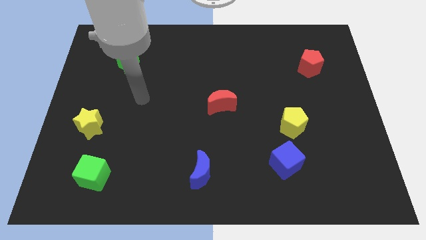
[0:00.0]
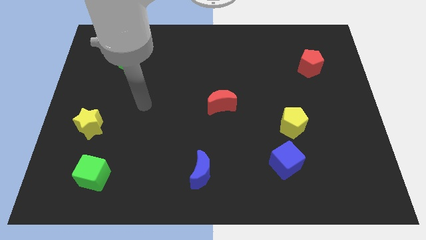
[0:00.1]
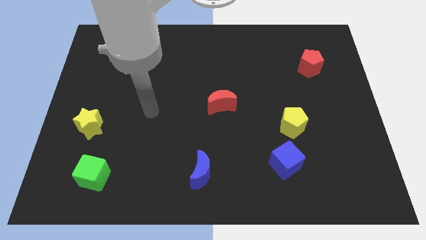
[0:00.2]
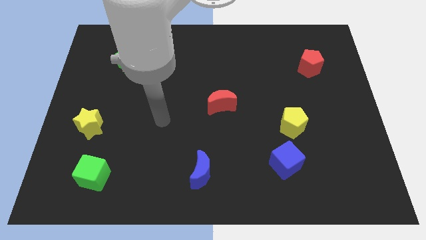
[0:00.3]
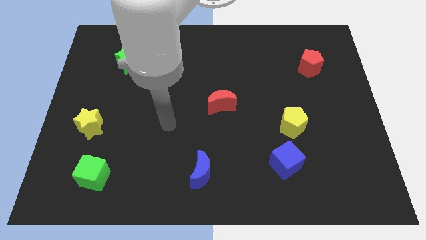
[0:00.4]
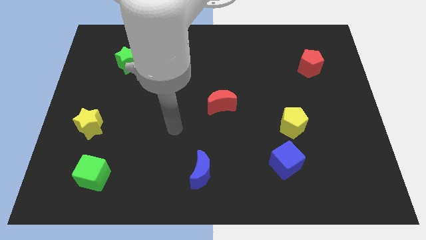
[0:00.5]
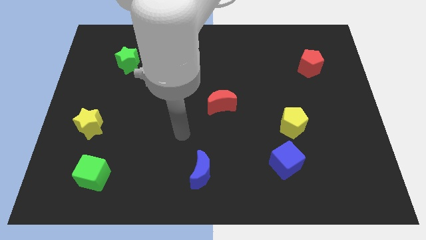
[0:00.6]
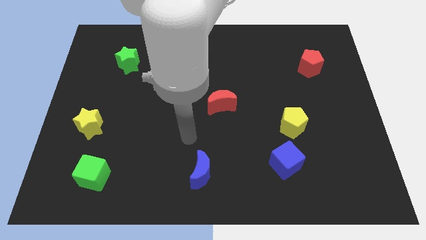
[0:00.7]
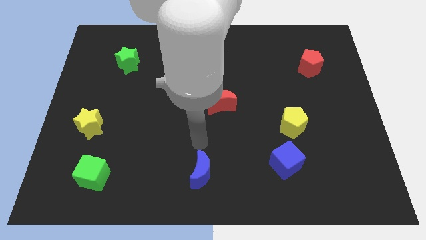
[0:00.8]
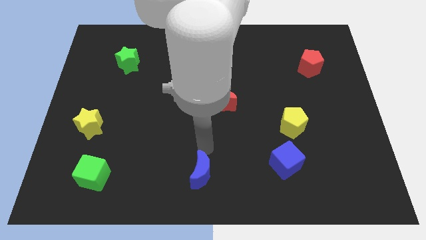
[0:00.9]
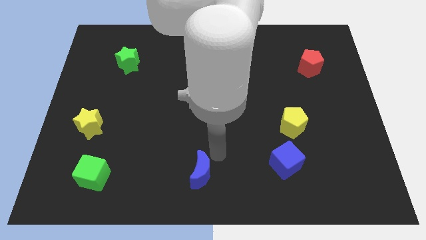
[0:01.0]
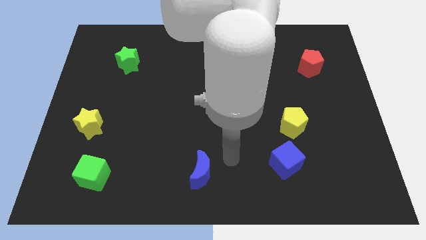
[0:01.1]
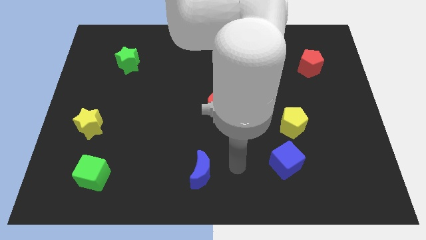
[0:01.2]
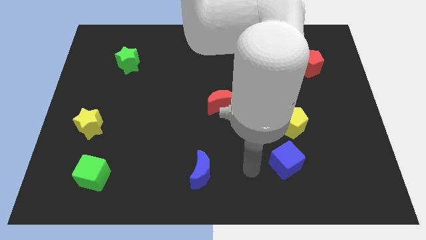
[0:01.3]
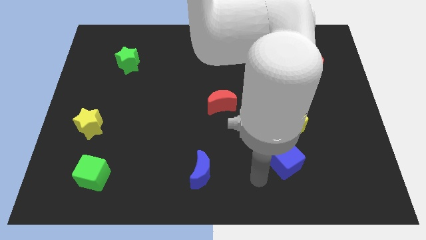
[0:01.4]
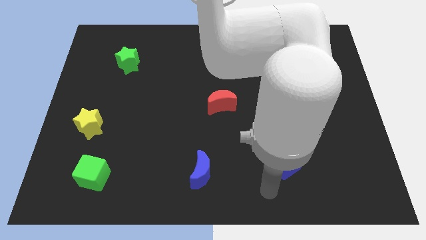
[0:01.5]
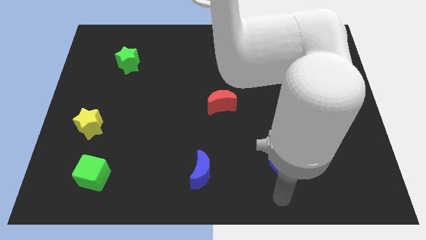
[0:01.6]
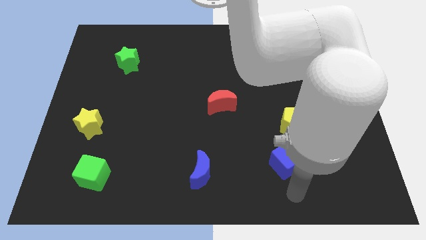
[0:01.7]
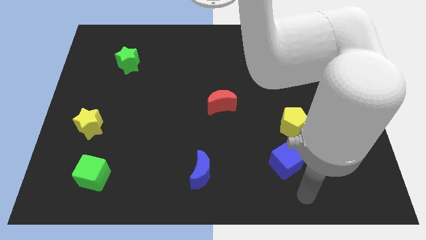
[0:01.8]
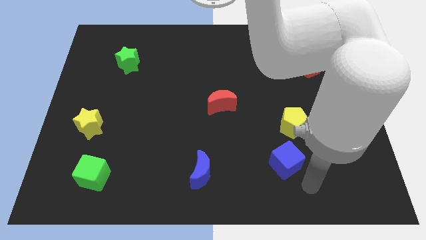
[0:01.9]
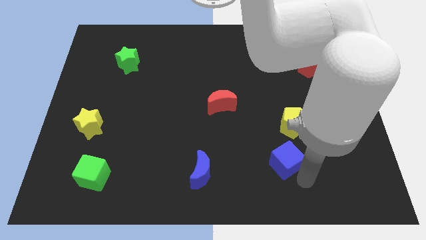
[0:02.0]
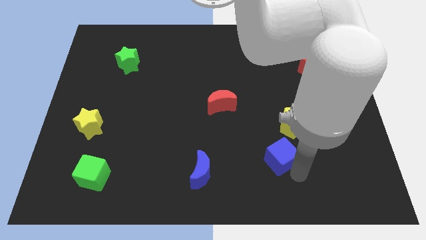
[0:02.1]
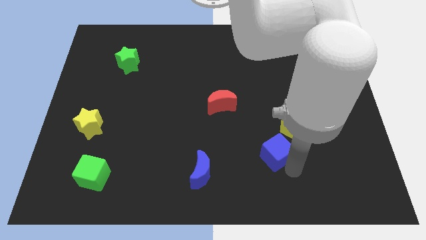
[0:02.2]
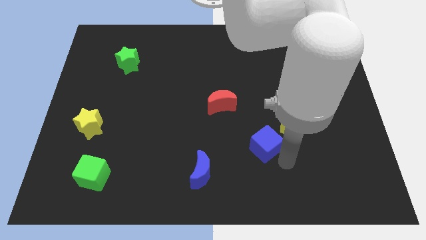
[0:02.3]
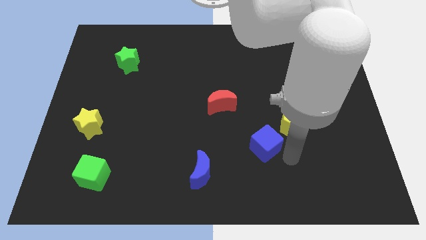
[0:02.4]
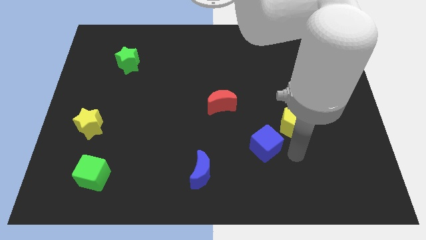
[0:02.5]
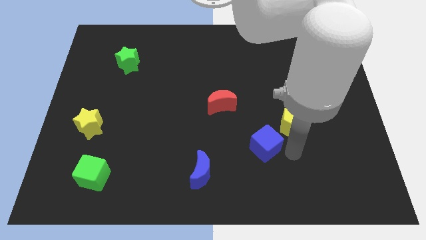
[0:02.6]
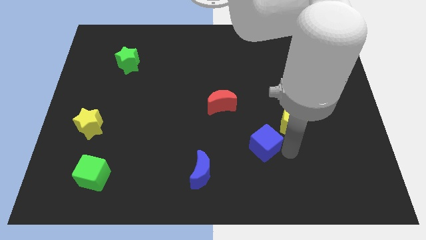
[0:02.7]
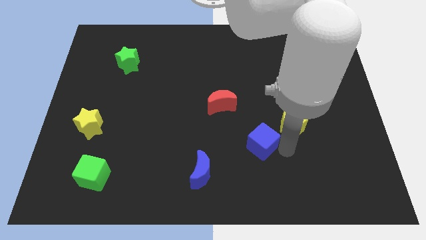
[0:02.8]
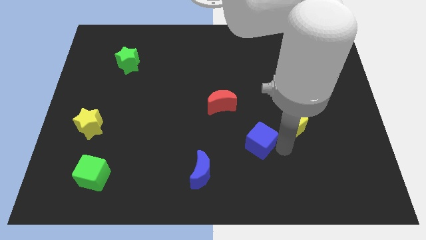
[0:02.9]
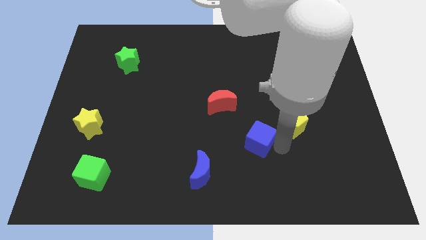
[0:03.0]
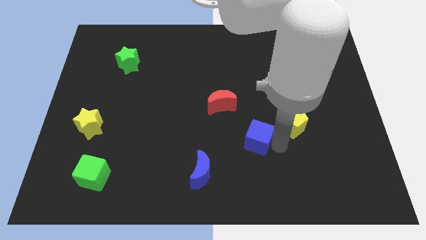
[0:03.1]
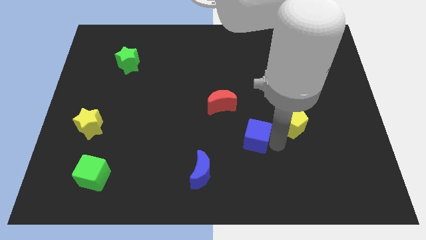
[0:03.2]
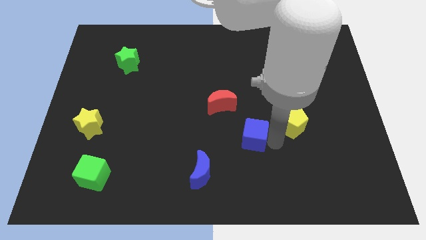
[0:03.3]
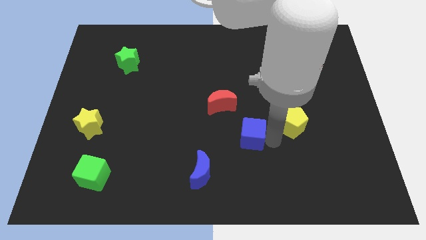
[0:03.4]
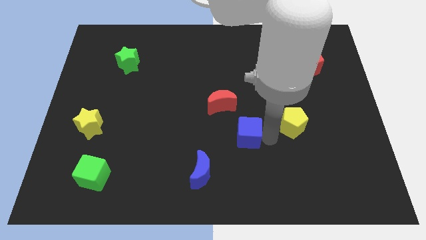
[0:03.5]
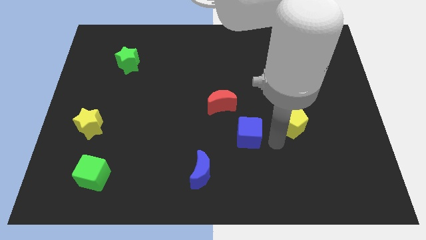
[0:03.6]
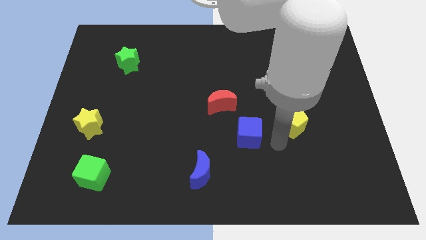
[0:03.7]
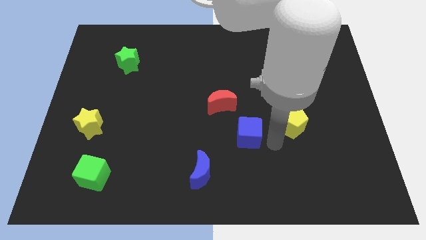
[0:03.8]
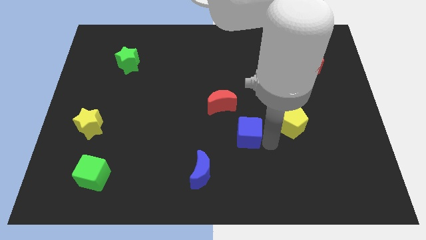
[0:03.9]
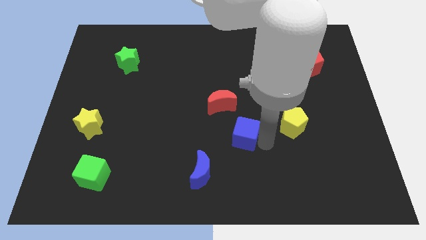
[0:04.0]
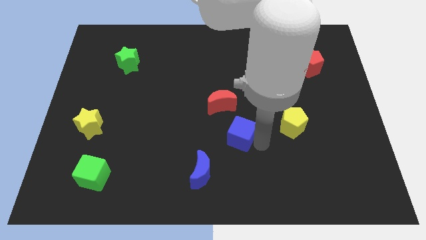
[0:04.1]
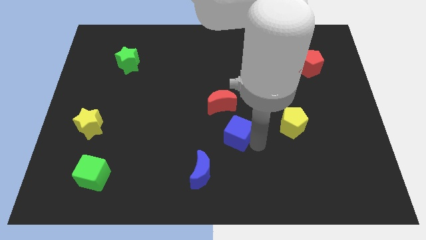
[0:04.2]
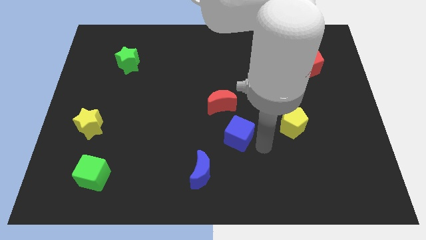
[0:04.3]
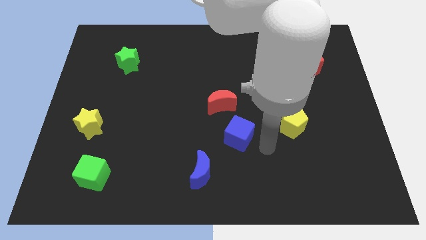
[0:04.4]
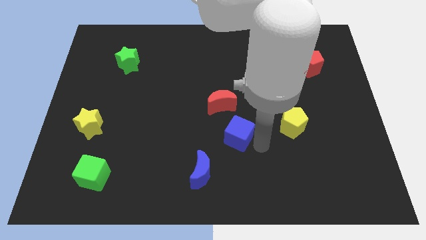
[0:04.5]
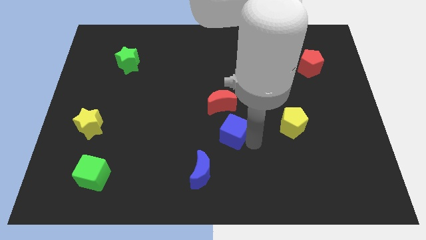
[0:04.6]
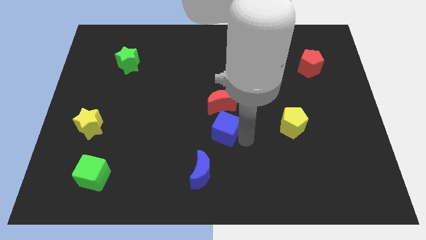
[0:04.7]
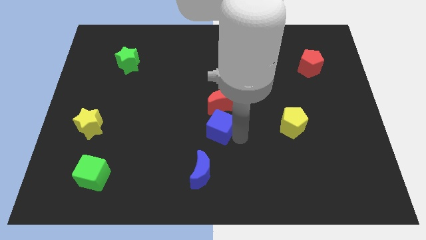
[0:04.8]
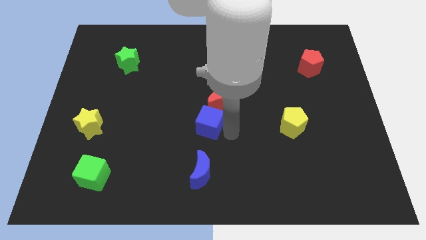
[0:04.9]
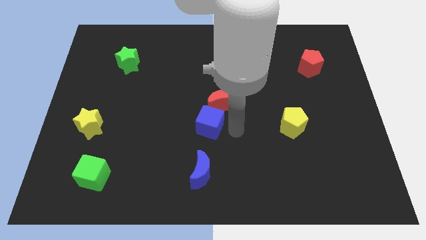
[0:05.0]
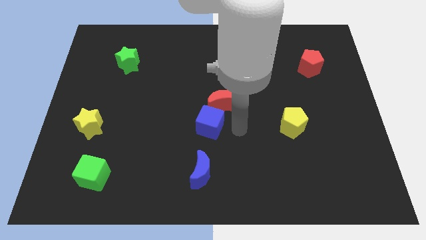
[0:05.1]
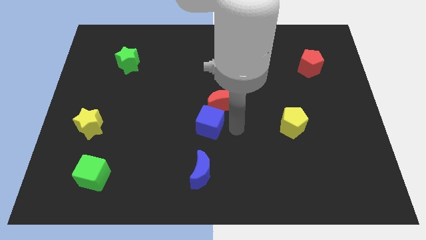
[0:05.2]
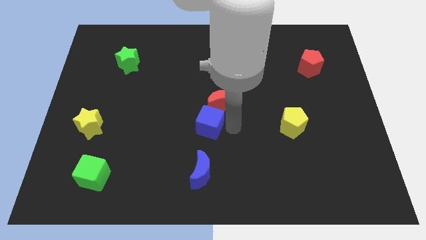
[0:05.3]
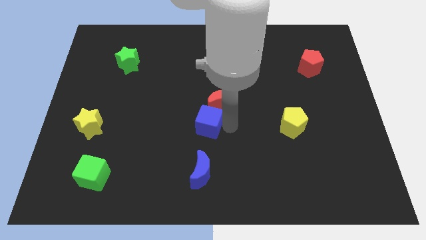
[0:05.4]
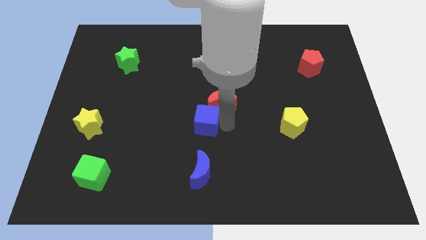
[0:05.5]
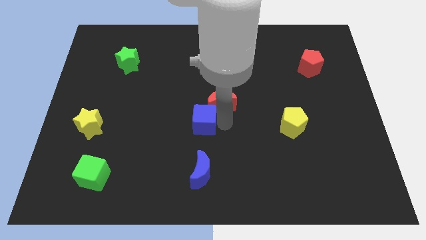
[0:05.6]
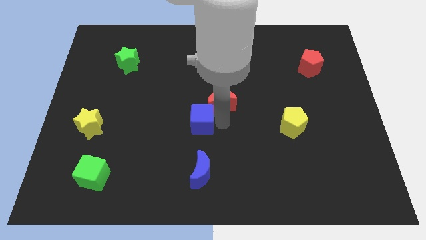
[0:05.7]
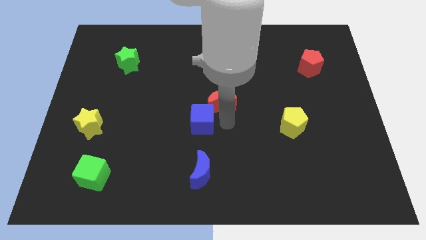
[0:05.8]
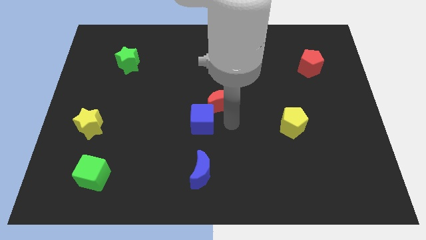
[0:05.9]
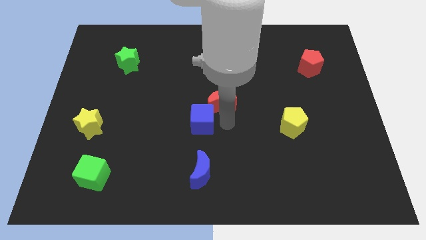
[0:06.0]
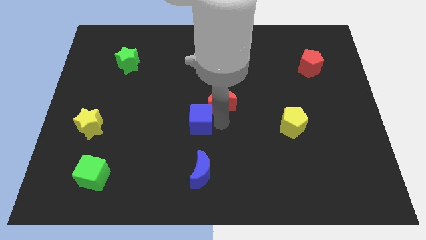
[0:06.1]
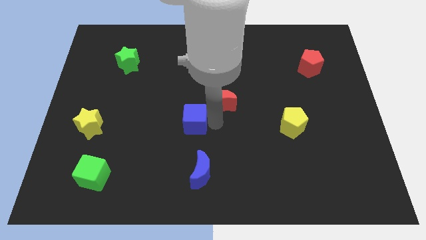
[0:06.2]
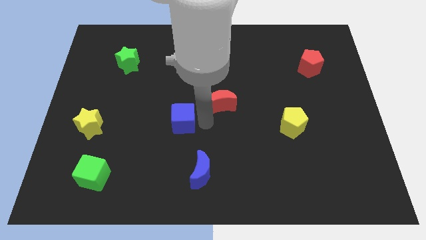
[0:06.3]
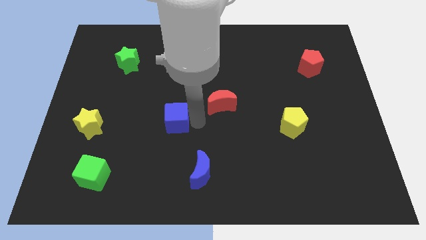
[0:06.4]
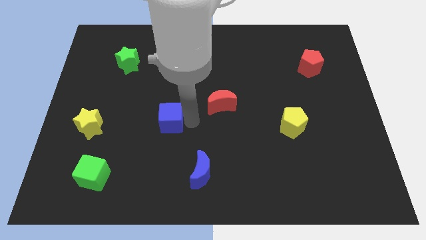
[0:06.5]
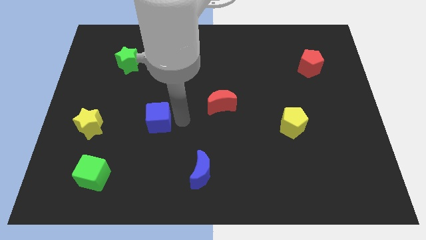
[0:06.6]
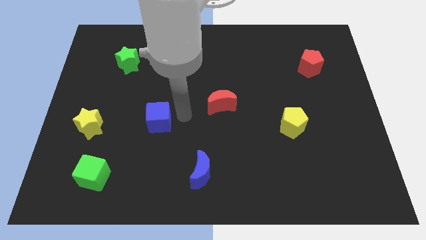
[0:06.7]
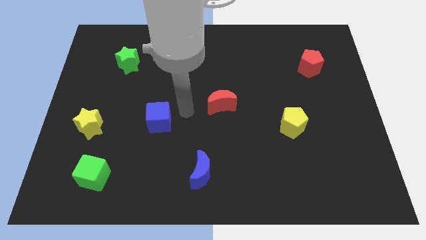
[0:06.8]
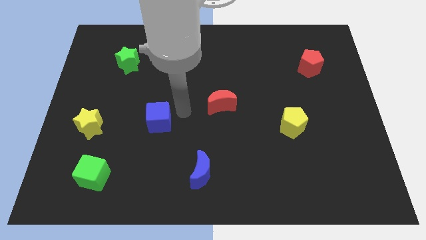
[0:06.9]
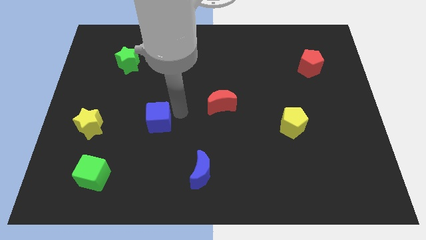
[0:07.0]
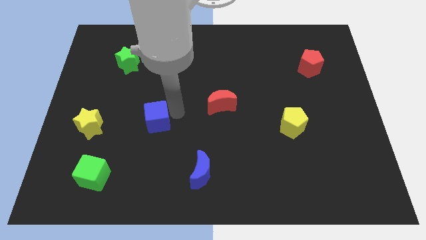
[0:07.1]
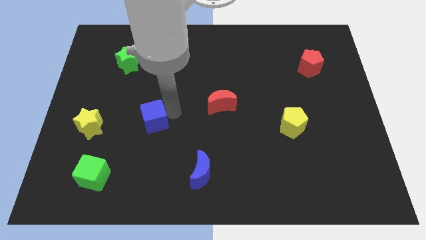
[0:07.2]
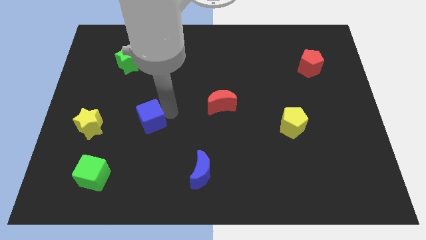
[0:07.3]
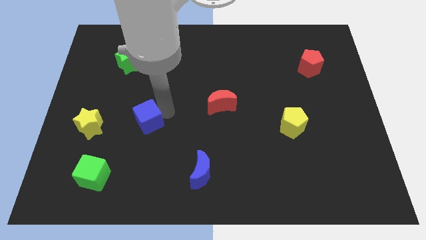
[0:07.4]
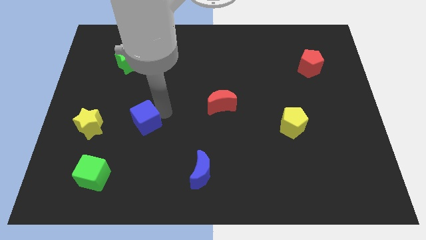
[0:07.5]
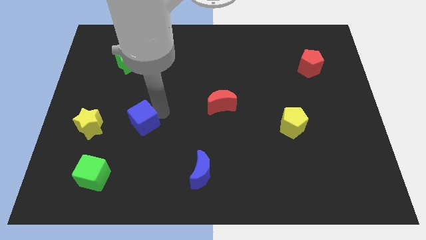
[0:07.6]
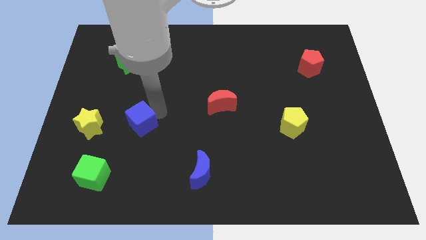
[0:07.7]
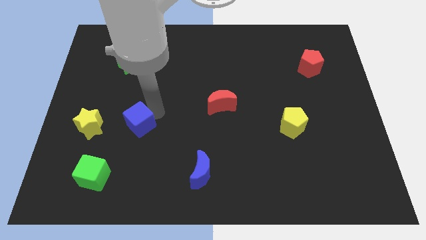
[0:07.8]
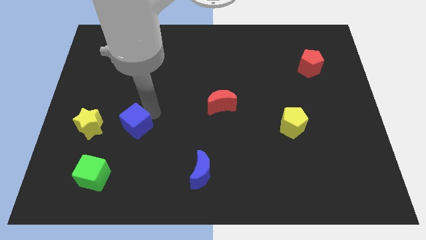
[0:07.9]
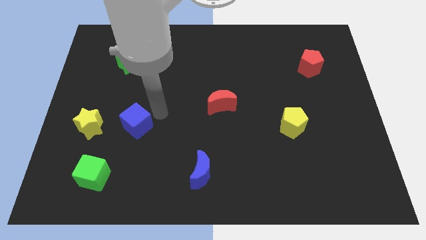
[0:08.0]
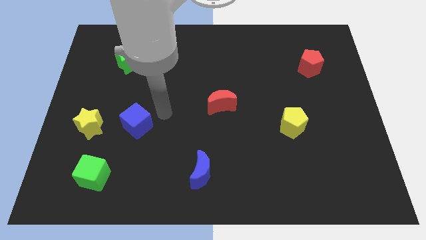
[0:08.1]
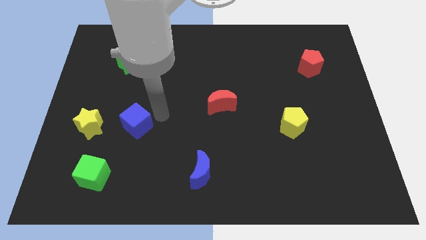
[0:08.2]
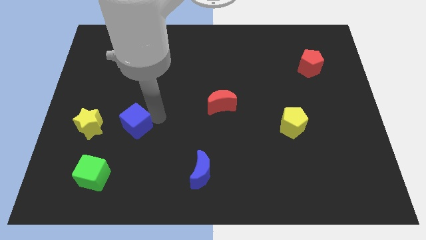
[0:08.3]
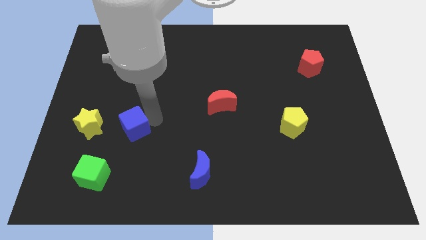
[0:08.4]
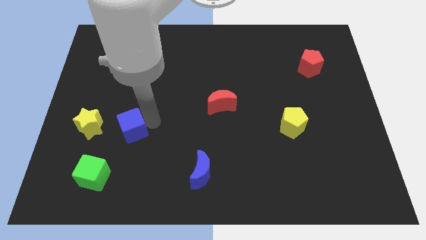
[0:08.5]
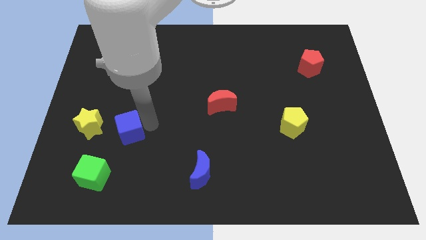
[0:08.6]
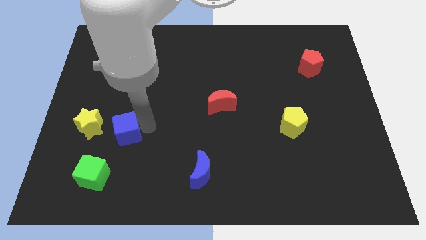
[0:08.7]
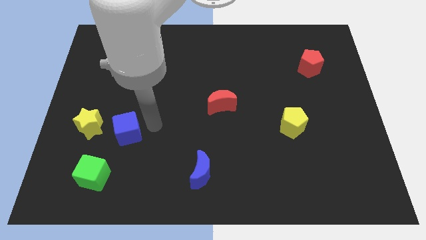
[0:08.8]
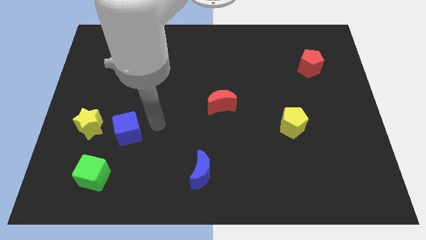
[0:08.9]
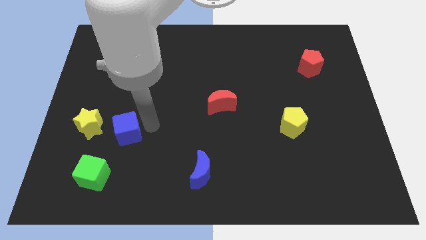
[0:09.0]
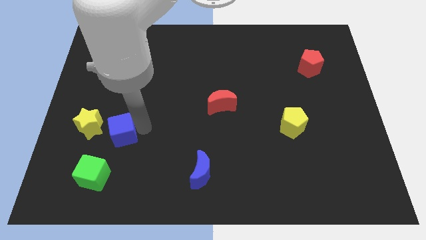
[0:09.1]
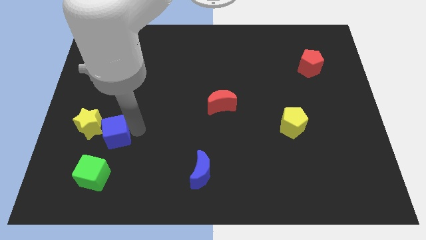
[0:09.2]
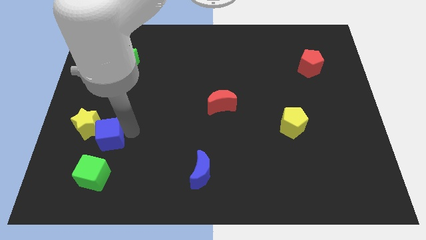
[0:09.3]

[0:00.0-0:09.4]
slide the blue cube to the yellow star
